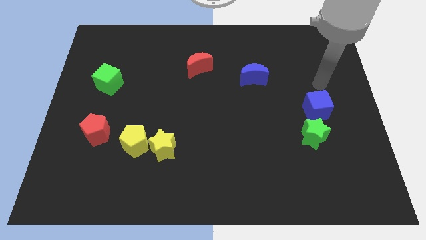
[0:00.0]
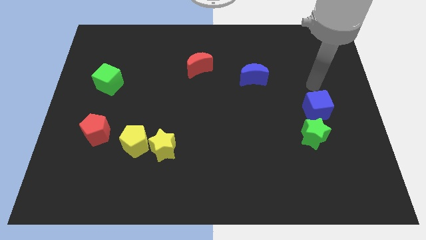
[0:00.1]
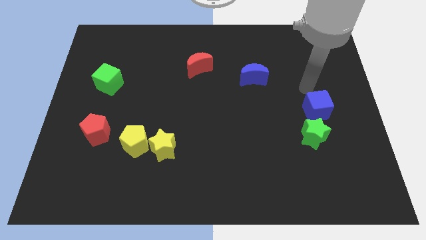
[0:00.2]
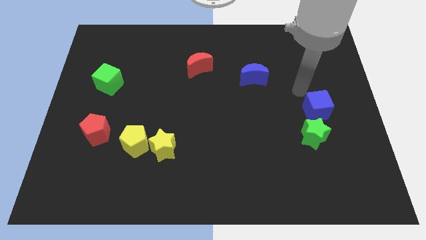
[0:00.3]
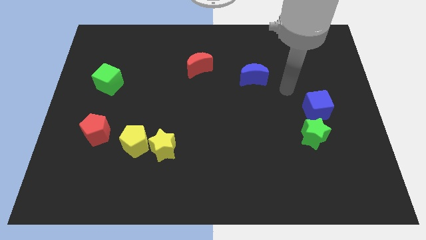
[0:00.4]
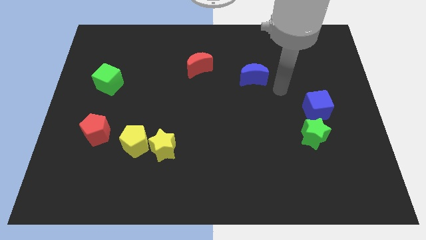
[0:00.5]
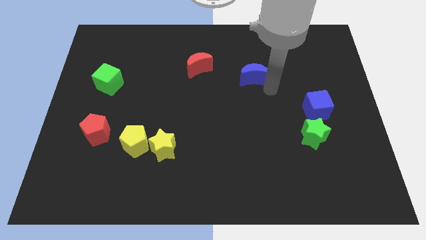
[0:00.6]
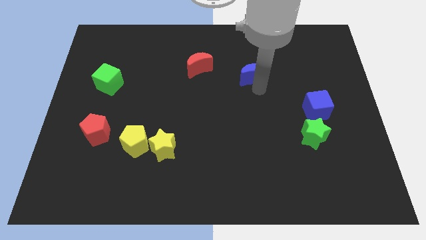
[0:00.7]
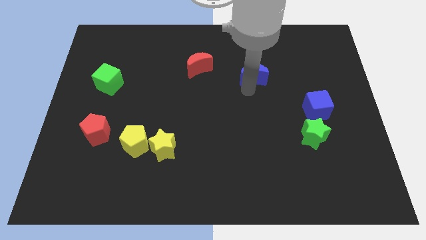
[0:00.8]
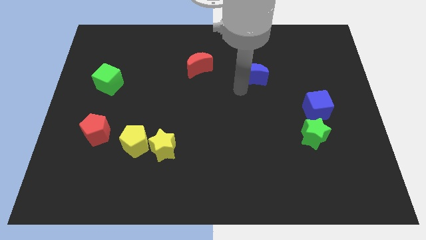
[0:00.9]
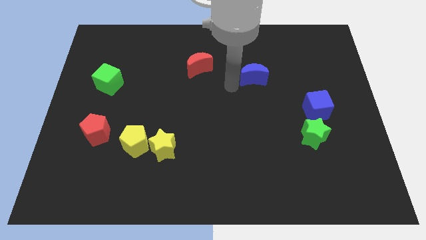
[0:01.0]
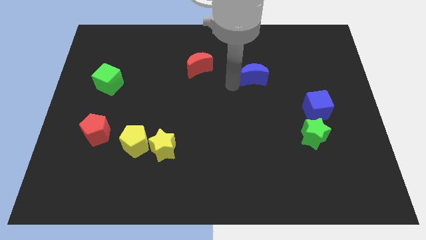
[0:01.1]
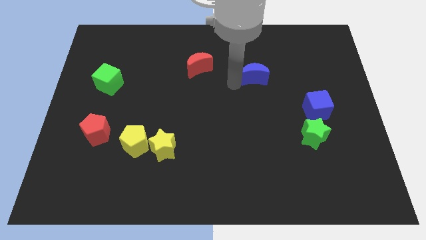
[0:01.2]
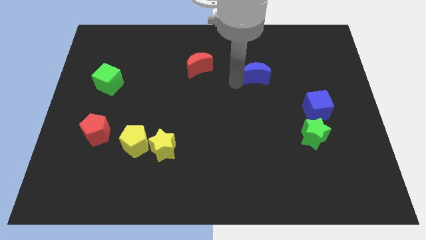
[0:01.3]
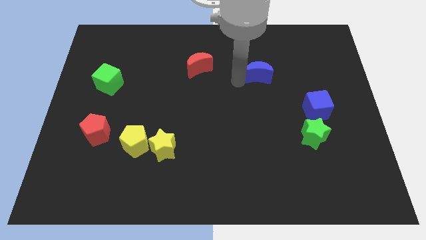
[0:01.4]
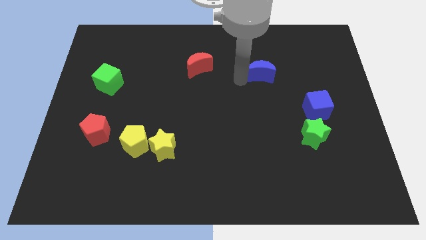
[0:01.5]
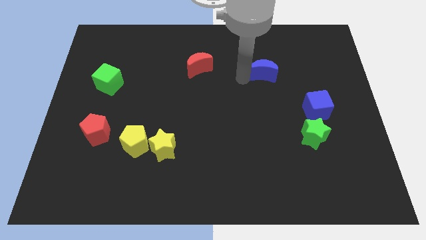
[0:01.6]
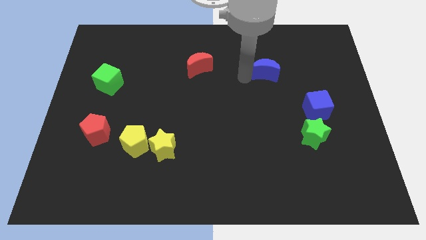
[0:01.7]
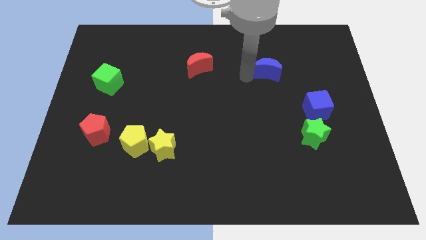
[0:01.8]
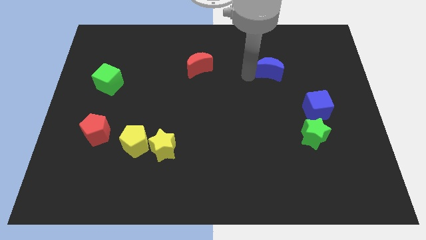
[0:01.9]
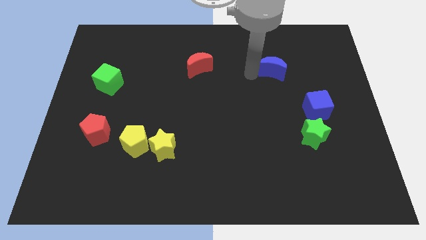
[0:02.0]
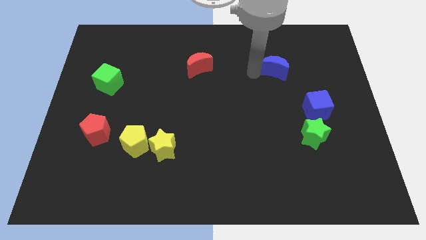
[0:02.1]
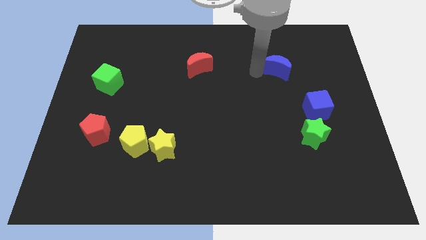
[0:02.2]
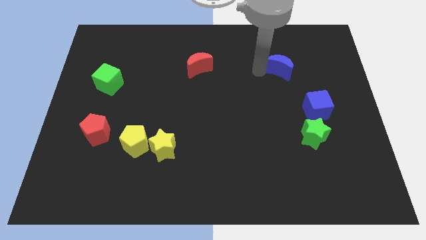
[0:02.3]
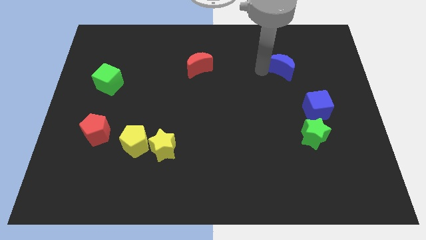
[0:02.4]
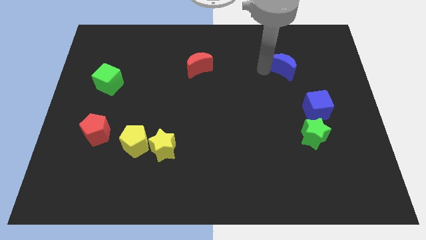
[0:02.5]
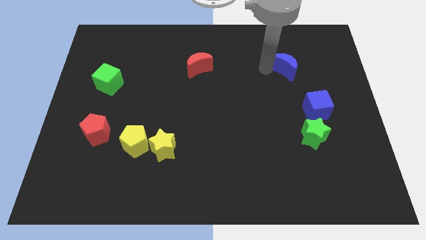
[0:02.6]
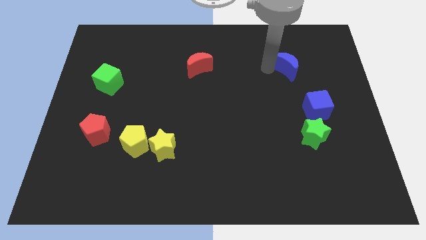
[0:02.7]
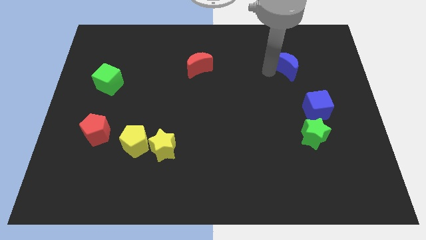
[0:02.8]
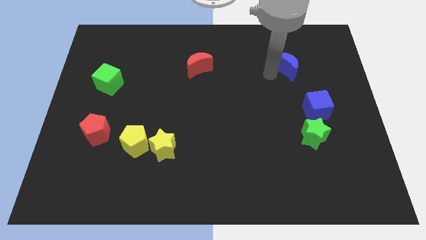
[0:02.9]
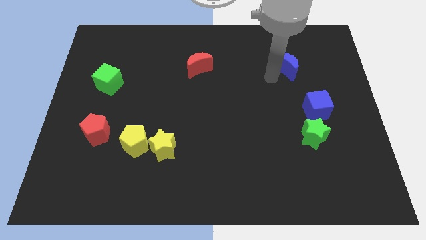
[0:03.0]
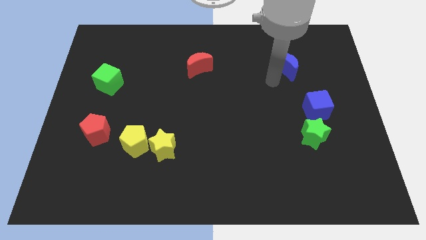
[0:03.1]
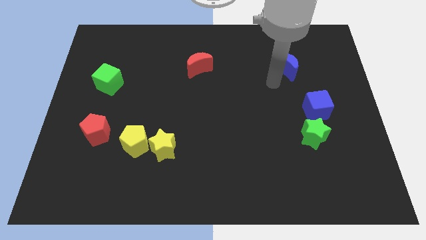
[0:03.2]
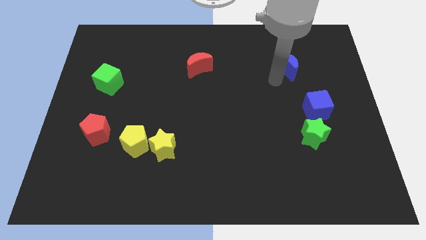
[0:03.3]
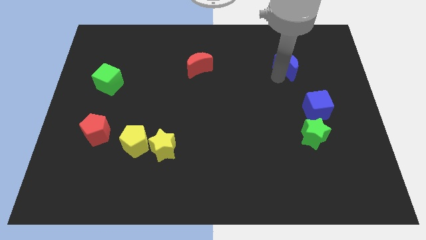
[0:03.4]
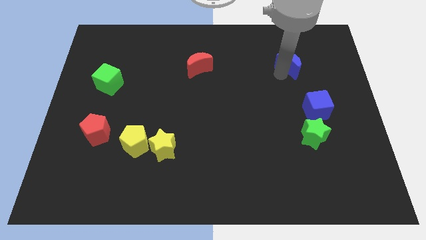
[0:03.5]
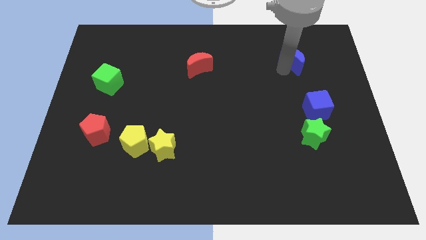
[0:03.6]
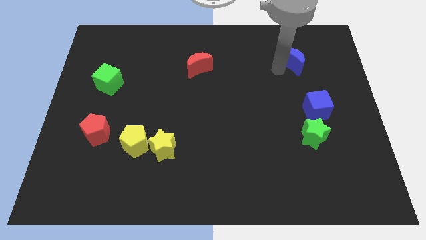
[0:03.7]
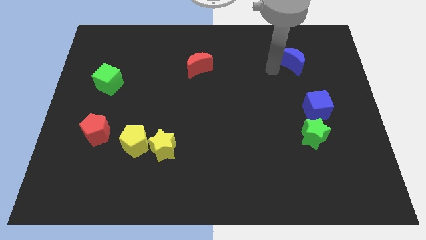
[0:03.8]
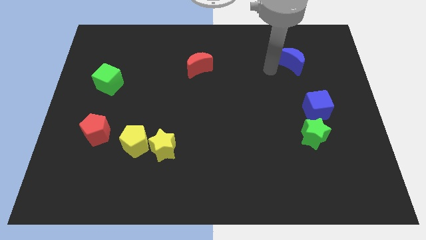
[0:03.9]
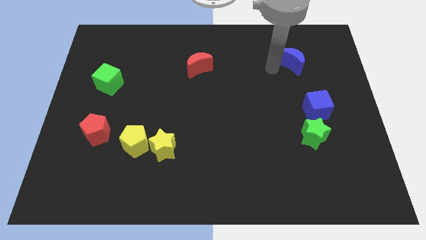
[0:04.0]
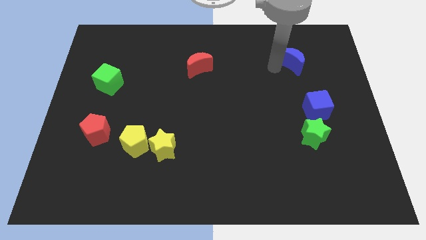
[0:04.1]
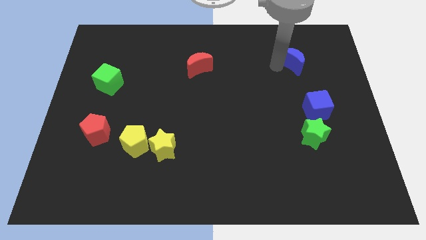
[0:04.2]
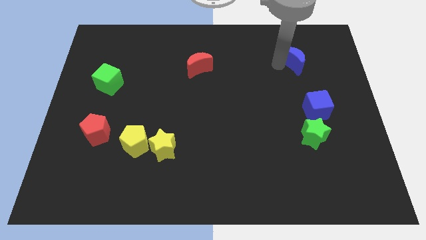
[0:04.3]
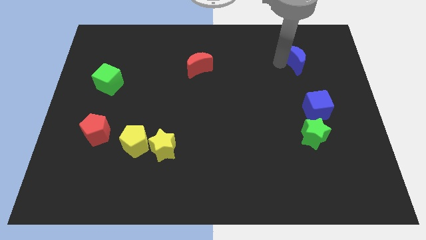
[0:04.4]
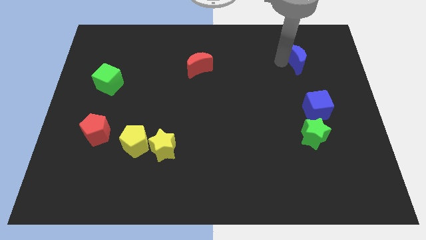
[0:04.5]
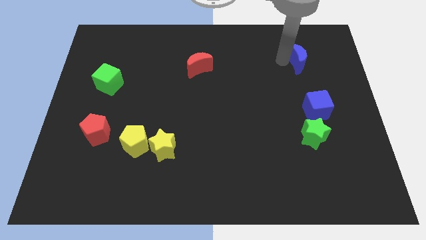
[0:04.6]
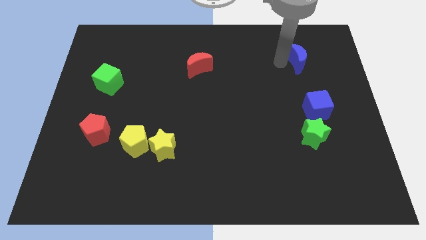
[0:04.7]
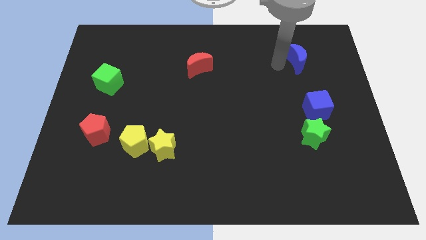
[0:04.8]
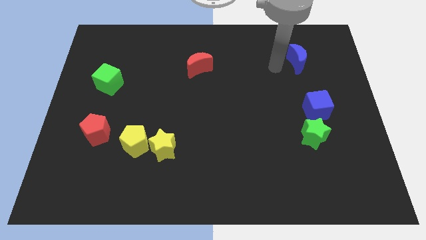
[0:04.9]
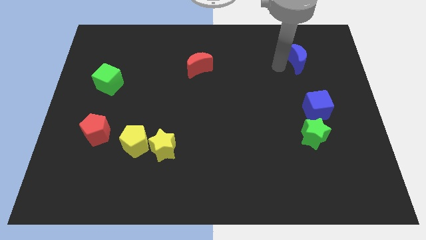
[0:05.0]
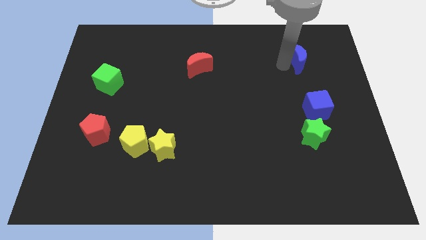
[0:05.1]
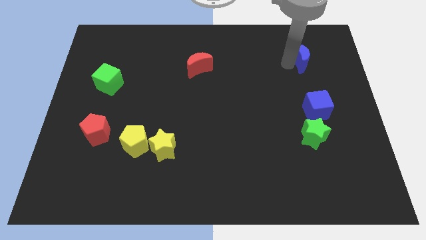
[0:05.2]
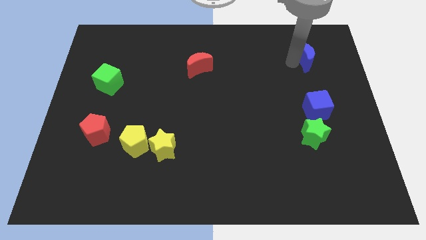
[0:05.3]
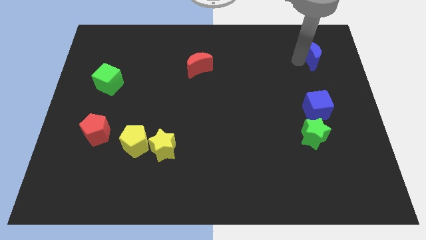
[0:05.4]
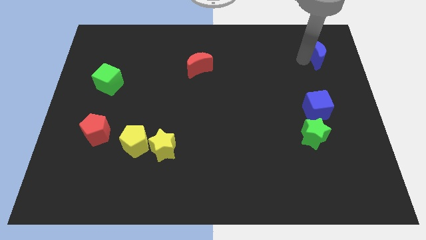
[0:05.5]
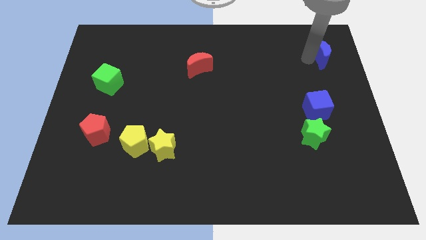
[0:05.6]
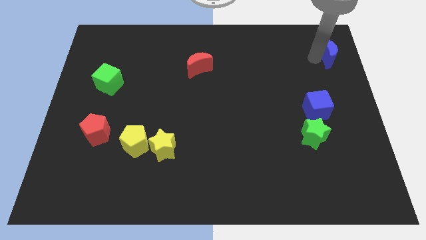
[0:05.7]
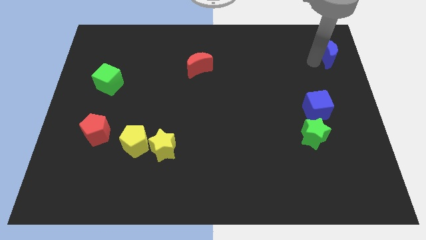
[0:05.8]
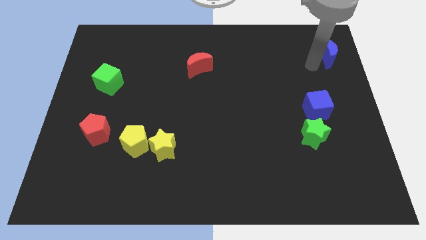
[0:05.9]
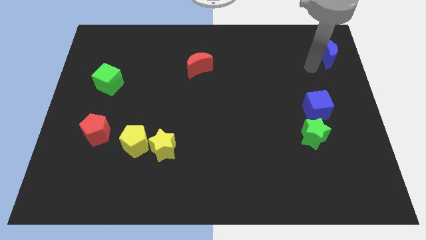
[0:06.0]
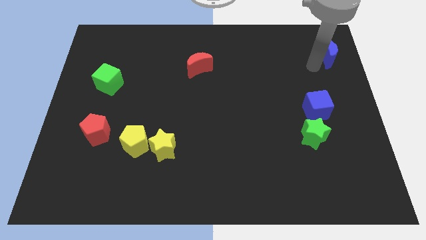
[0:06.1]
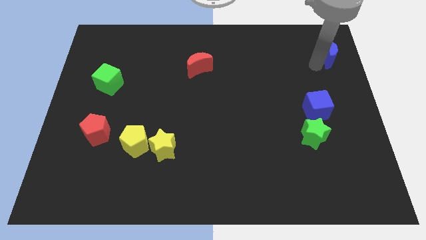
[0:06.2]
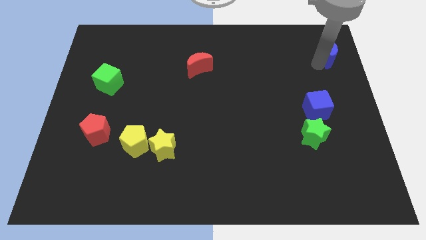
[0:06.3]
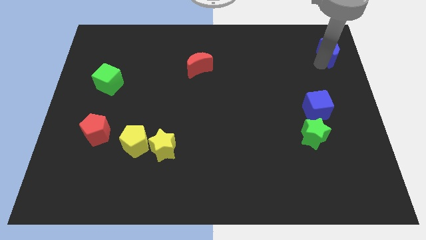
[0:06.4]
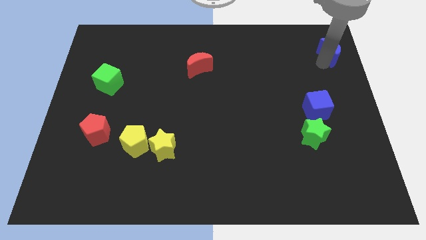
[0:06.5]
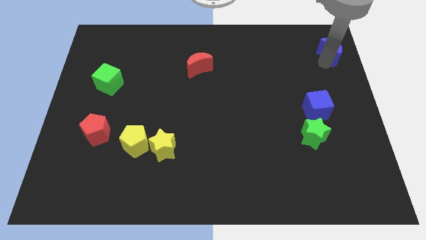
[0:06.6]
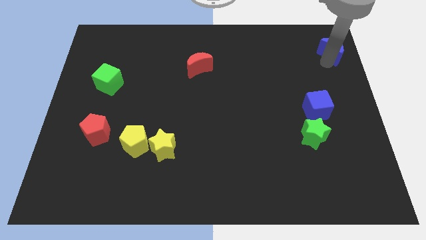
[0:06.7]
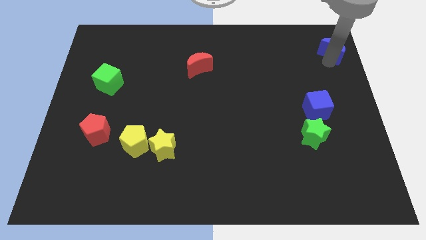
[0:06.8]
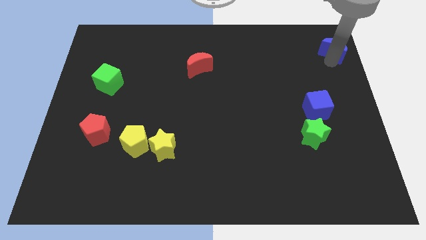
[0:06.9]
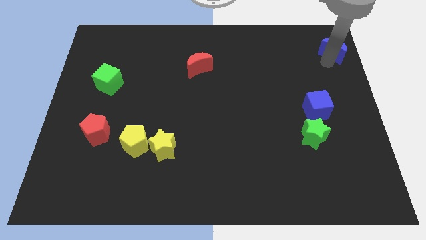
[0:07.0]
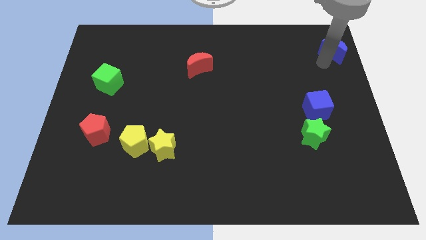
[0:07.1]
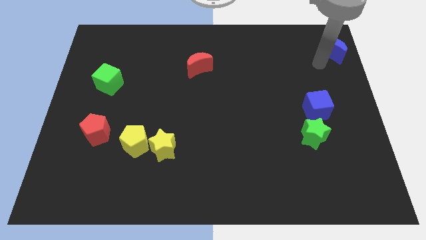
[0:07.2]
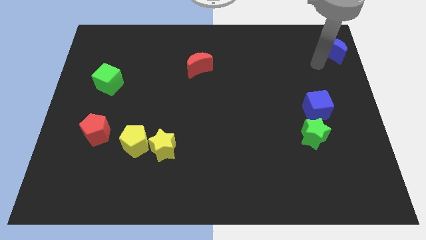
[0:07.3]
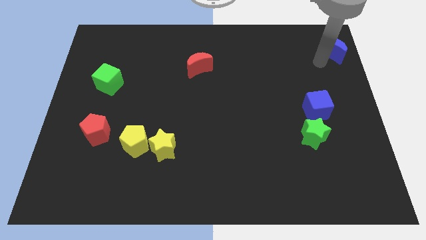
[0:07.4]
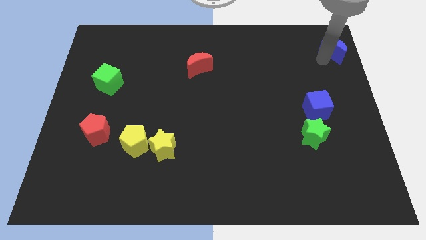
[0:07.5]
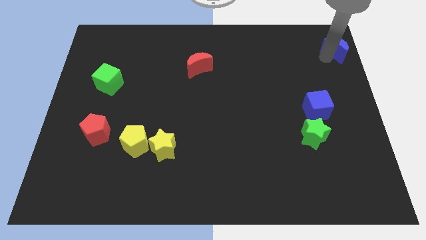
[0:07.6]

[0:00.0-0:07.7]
move the blue moon to the upper right corner
